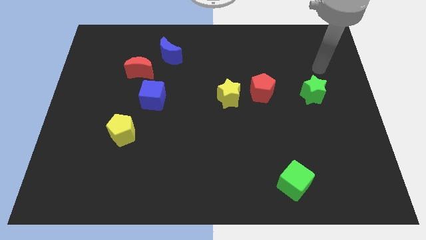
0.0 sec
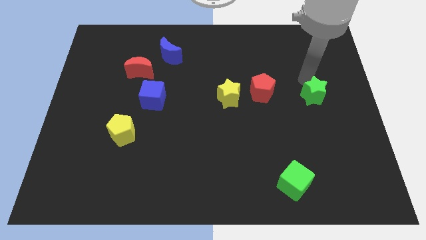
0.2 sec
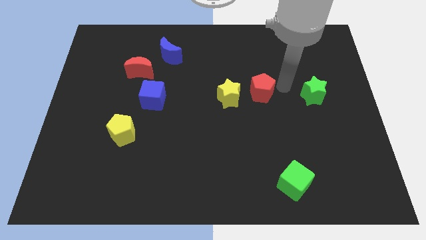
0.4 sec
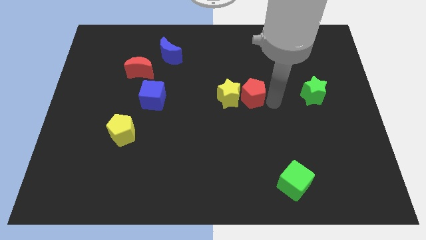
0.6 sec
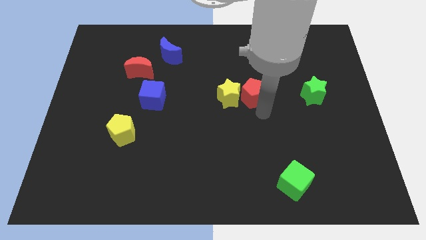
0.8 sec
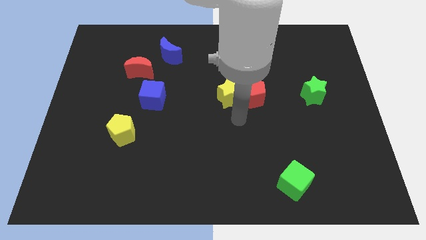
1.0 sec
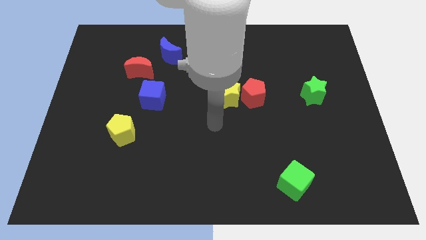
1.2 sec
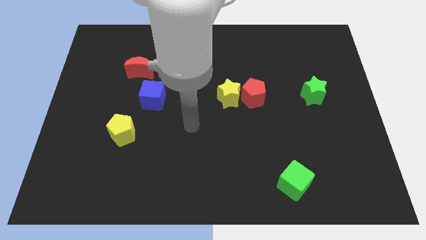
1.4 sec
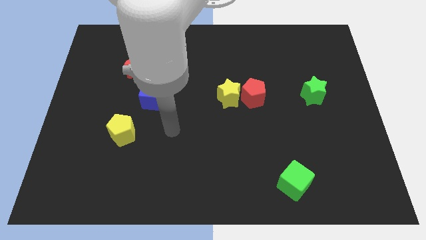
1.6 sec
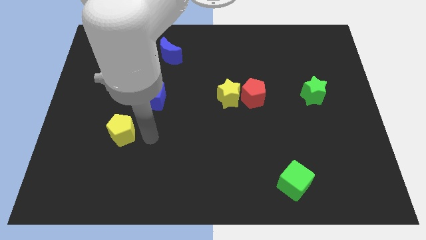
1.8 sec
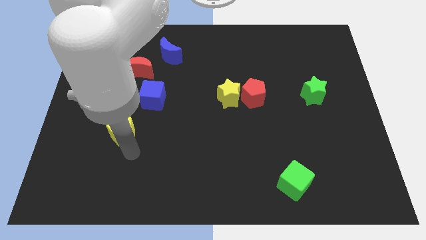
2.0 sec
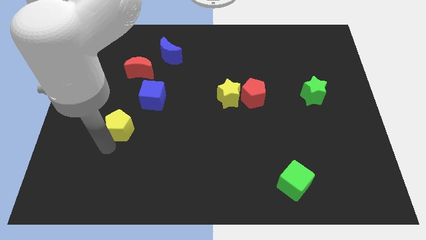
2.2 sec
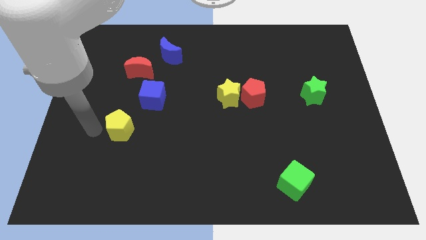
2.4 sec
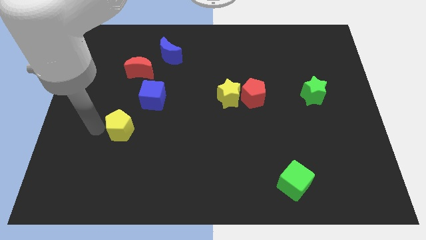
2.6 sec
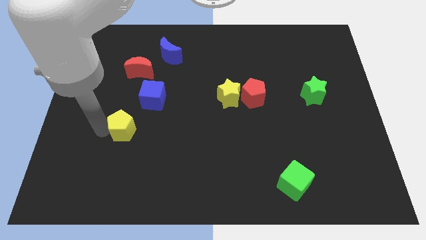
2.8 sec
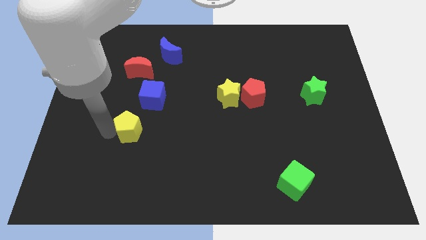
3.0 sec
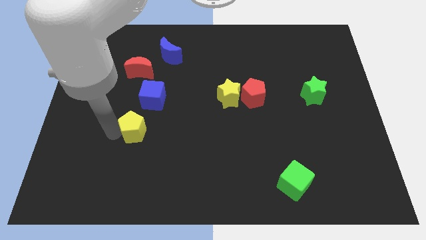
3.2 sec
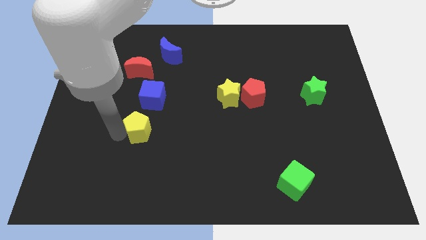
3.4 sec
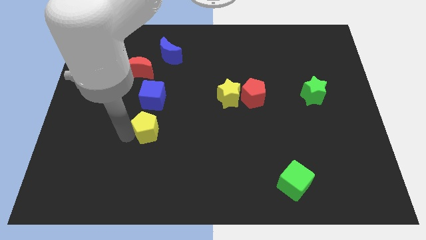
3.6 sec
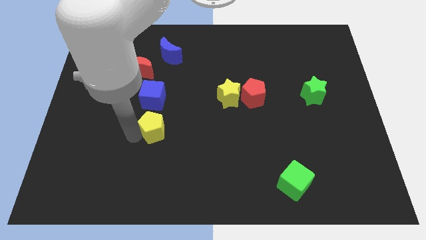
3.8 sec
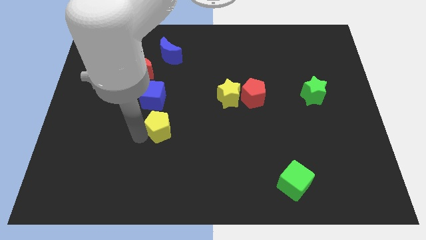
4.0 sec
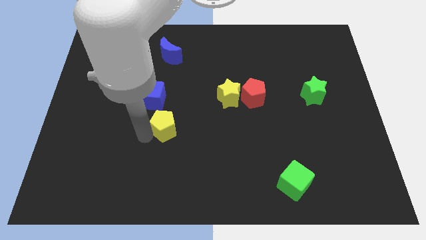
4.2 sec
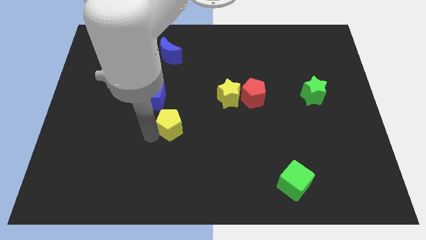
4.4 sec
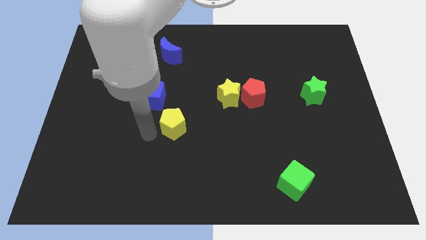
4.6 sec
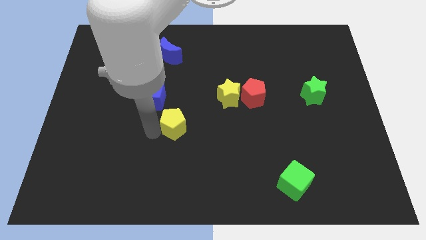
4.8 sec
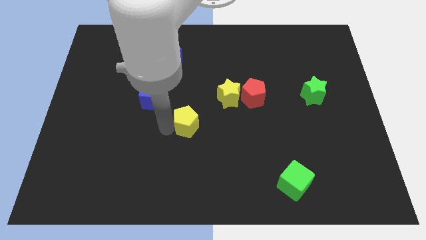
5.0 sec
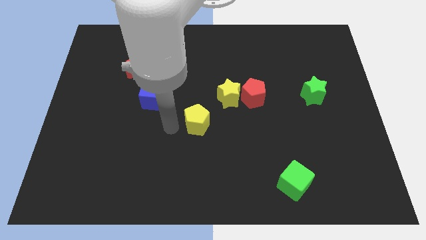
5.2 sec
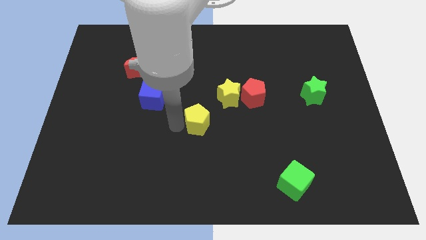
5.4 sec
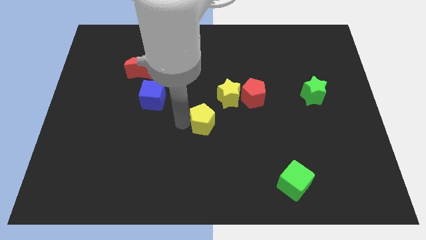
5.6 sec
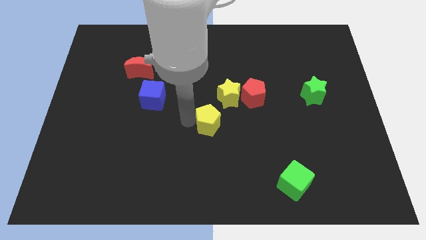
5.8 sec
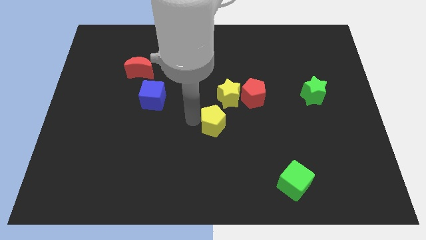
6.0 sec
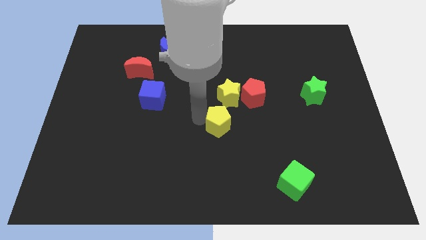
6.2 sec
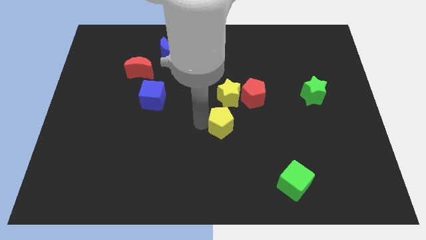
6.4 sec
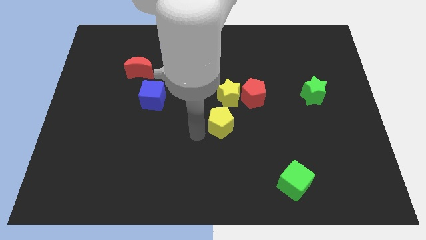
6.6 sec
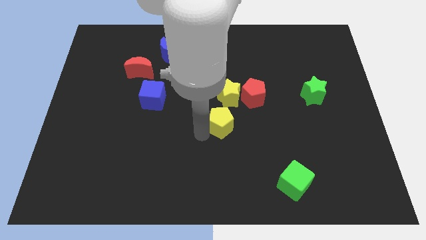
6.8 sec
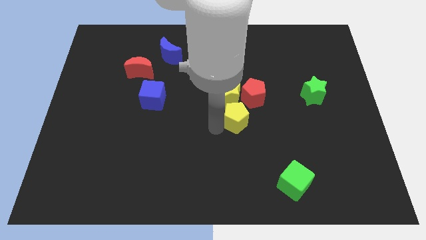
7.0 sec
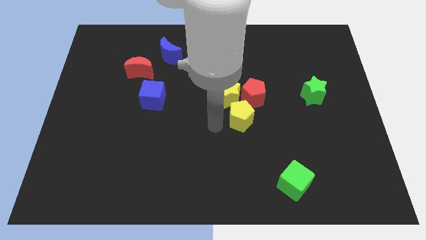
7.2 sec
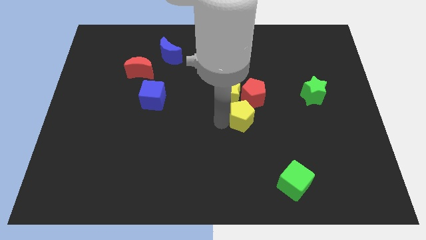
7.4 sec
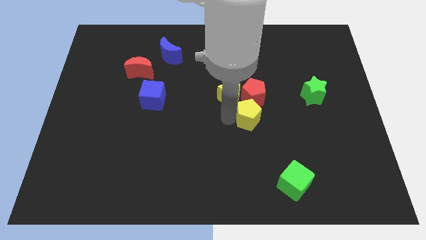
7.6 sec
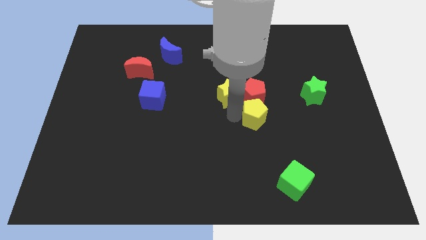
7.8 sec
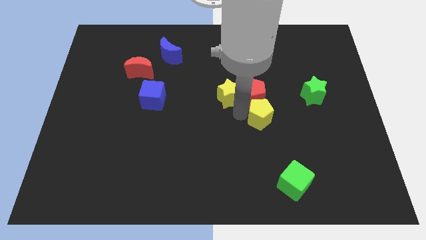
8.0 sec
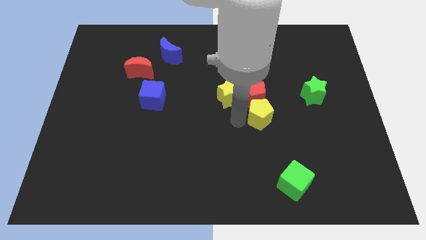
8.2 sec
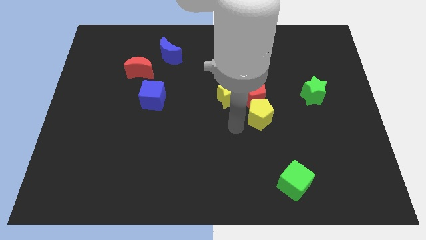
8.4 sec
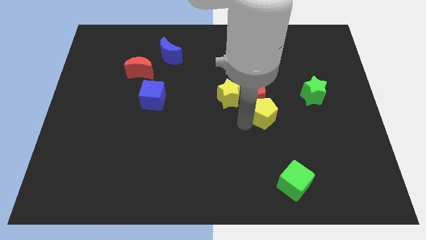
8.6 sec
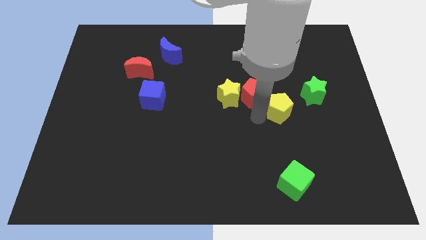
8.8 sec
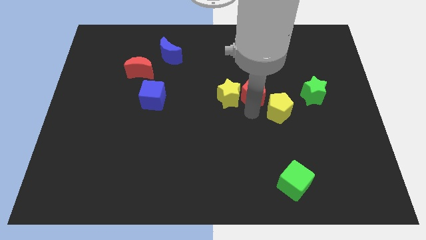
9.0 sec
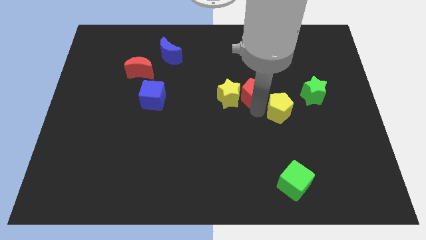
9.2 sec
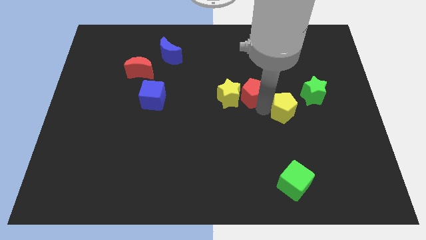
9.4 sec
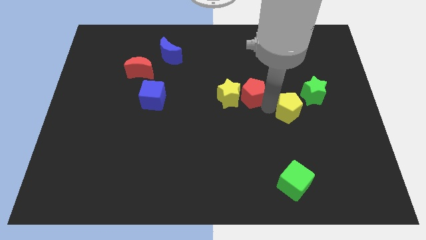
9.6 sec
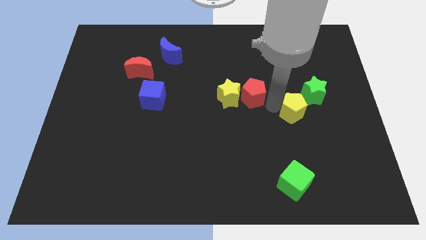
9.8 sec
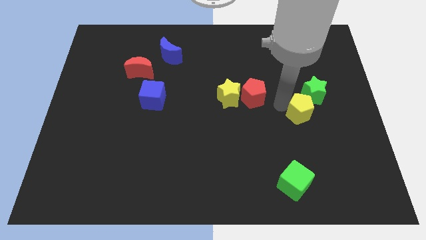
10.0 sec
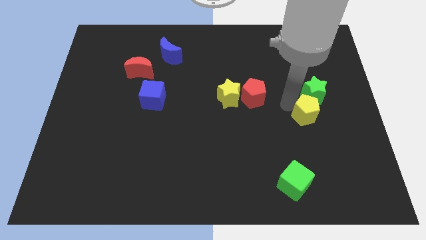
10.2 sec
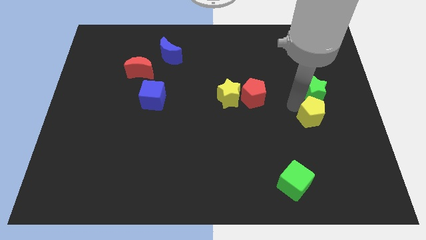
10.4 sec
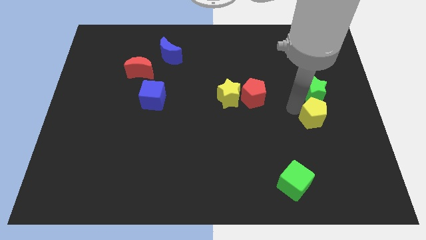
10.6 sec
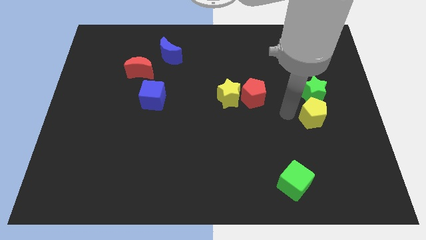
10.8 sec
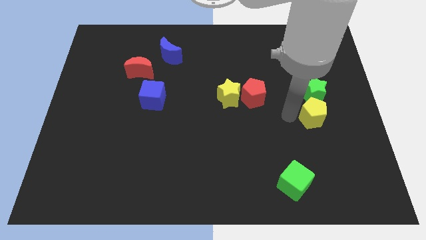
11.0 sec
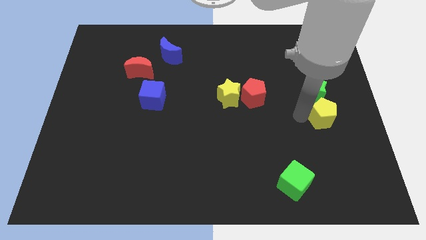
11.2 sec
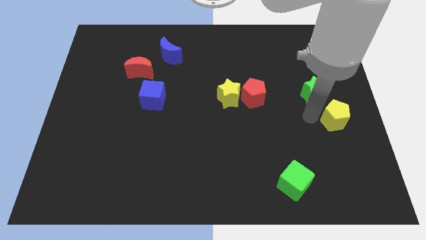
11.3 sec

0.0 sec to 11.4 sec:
move the yellow pentagon to the center right
